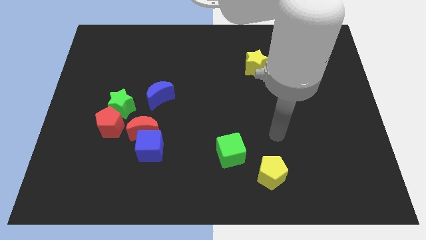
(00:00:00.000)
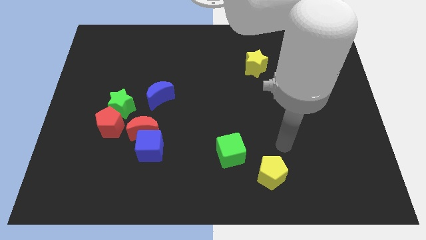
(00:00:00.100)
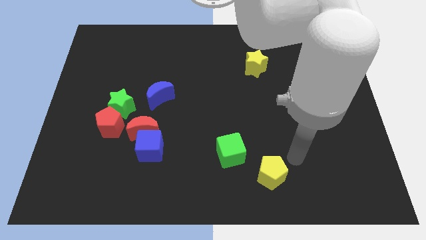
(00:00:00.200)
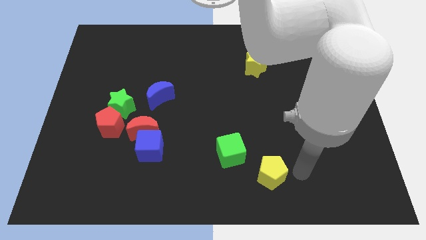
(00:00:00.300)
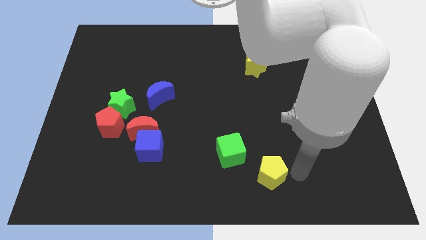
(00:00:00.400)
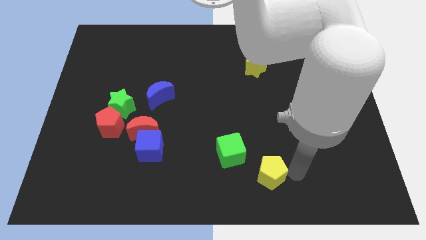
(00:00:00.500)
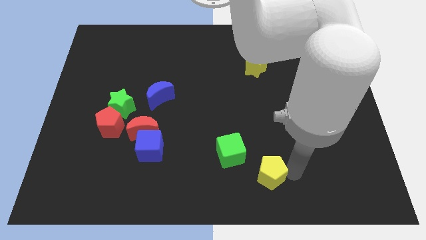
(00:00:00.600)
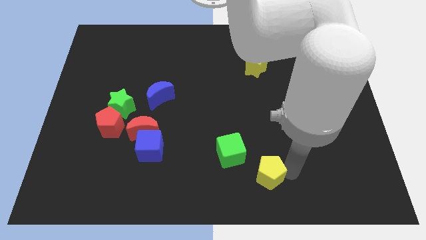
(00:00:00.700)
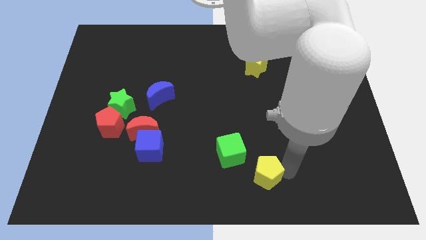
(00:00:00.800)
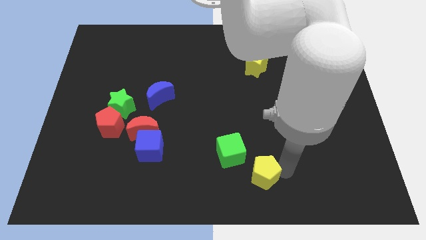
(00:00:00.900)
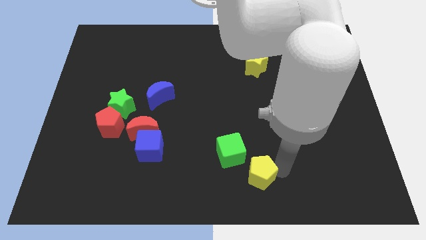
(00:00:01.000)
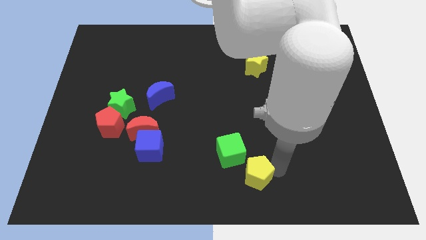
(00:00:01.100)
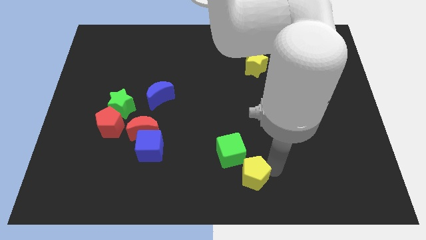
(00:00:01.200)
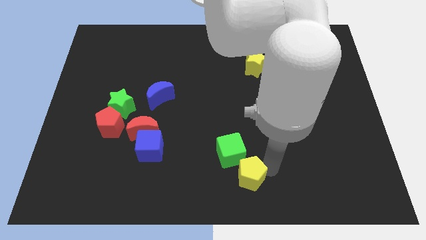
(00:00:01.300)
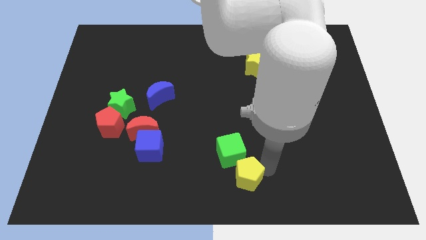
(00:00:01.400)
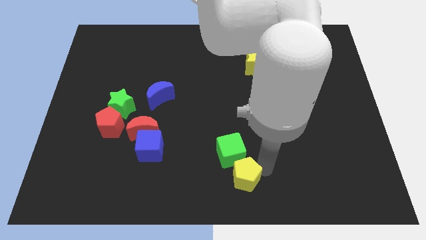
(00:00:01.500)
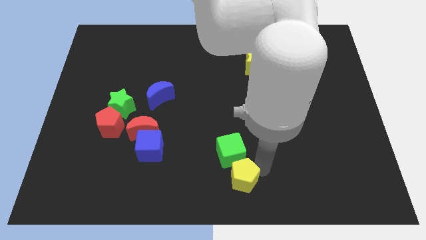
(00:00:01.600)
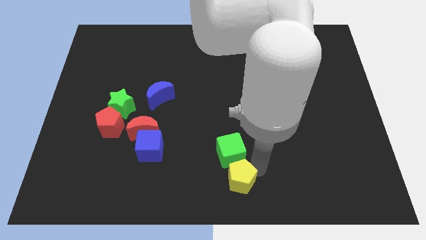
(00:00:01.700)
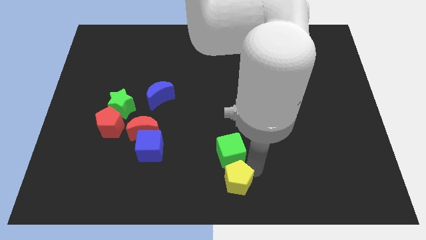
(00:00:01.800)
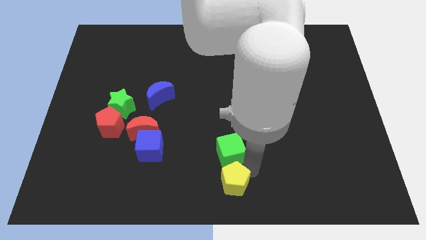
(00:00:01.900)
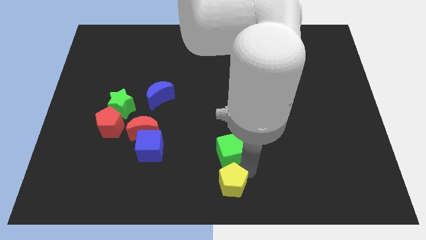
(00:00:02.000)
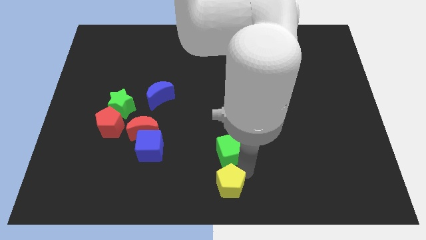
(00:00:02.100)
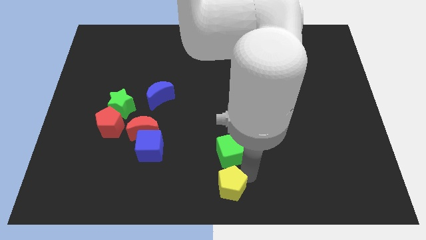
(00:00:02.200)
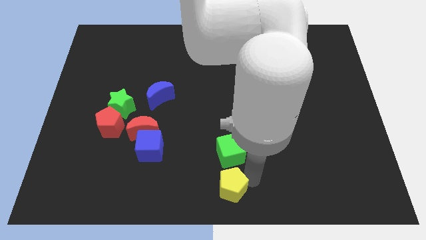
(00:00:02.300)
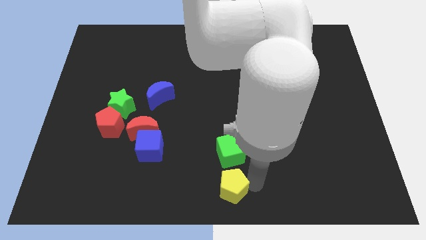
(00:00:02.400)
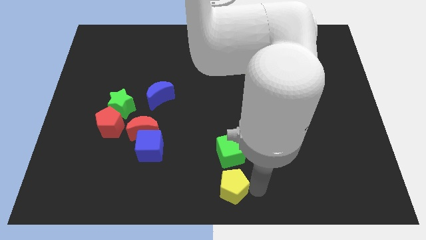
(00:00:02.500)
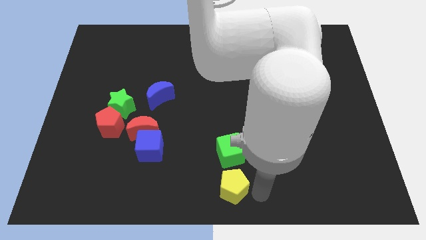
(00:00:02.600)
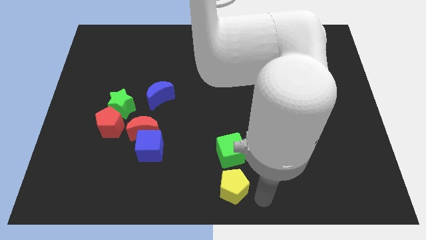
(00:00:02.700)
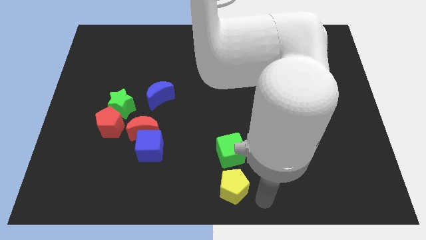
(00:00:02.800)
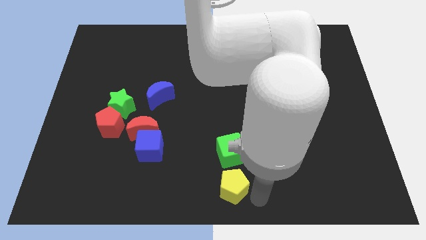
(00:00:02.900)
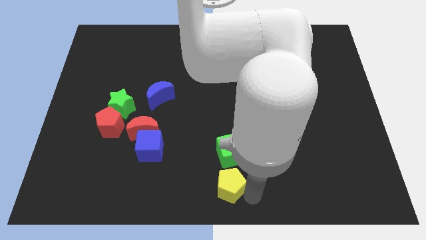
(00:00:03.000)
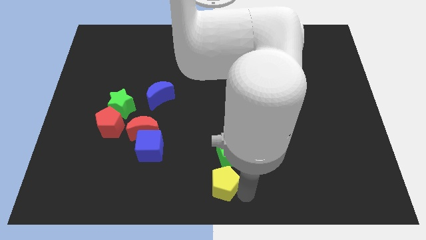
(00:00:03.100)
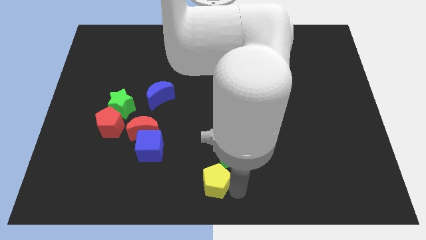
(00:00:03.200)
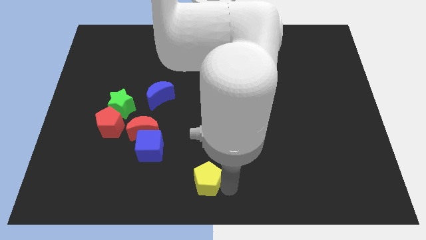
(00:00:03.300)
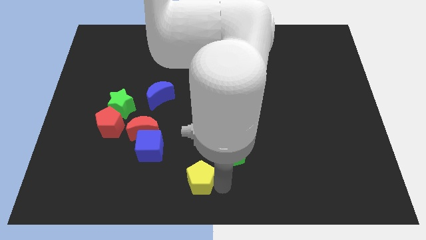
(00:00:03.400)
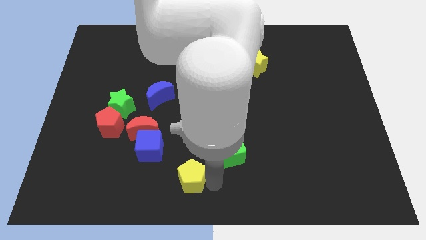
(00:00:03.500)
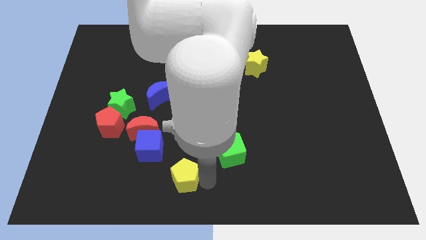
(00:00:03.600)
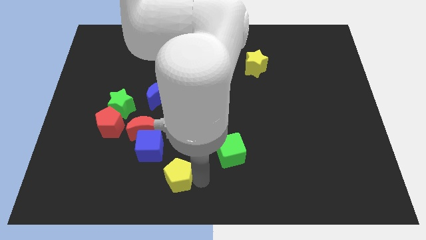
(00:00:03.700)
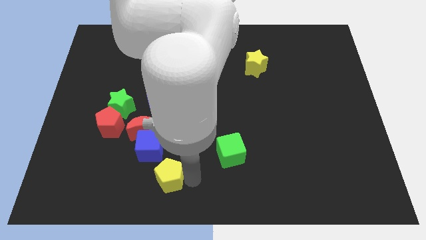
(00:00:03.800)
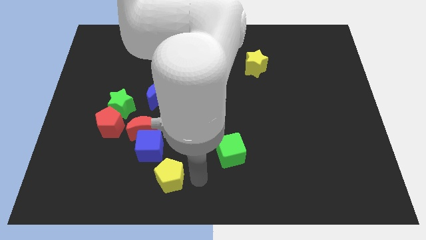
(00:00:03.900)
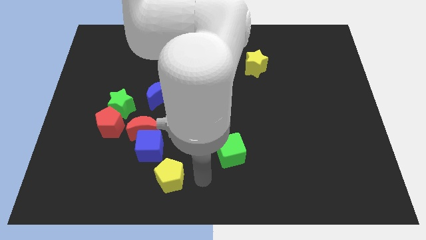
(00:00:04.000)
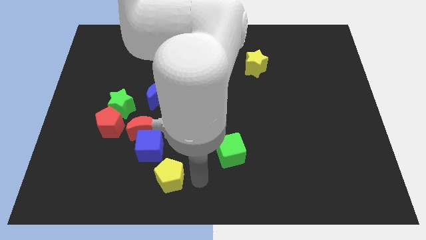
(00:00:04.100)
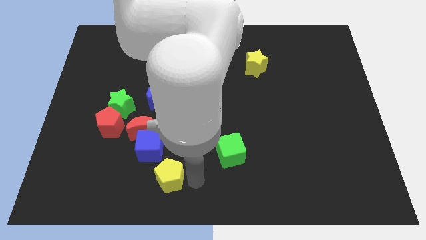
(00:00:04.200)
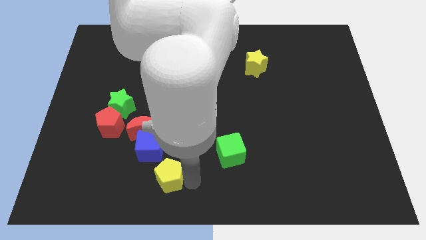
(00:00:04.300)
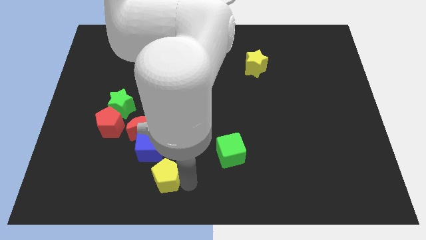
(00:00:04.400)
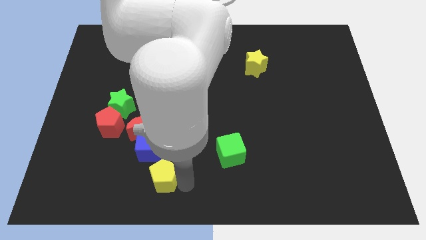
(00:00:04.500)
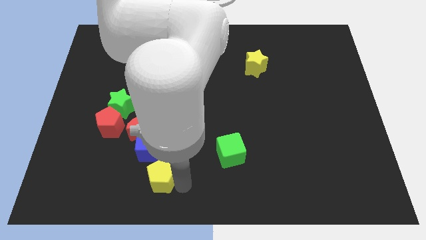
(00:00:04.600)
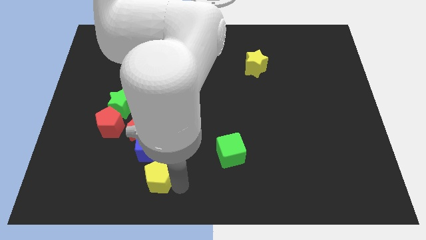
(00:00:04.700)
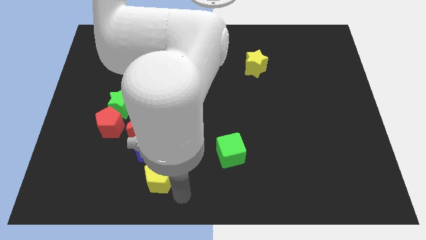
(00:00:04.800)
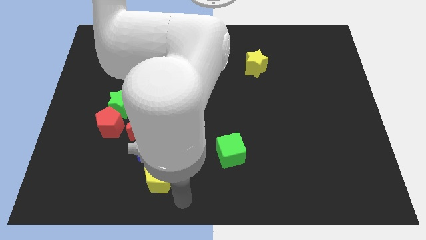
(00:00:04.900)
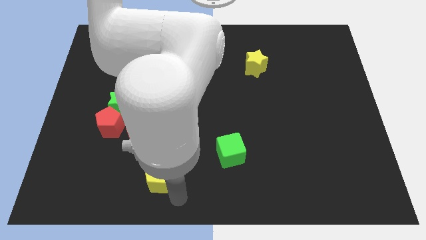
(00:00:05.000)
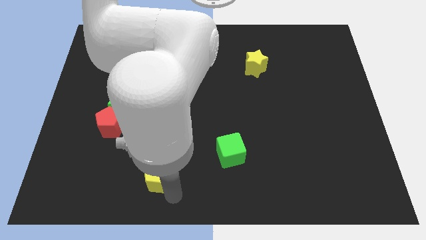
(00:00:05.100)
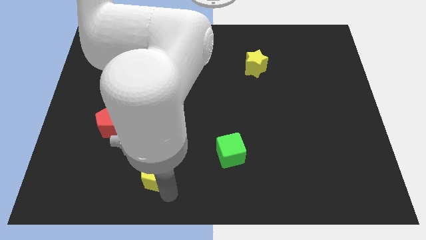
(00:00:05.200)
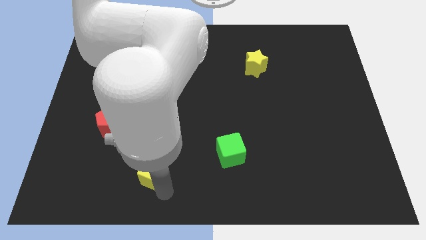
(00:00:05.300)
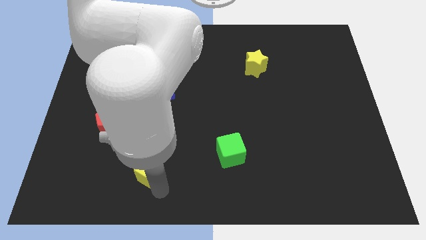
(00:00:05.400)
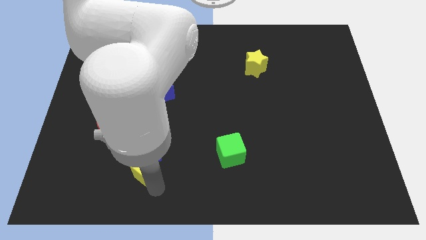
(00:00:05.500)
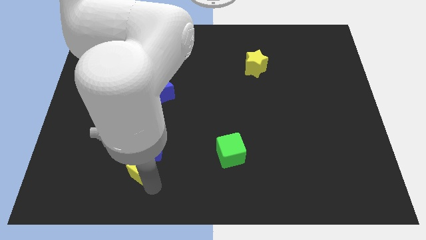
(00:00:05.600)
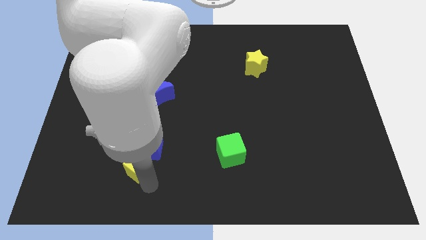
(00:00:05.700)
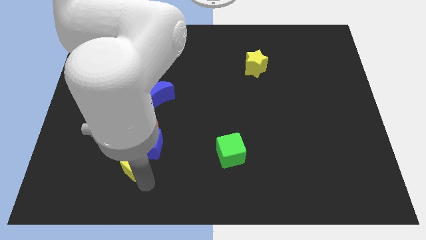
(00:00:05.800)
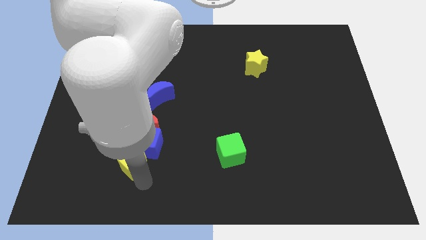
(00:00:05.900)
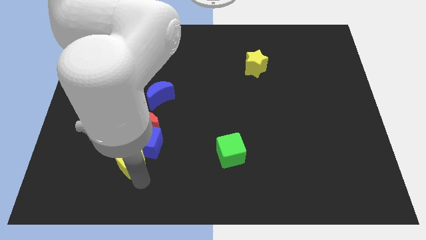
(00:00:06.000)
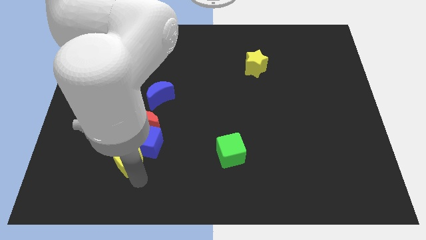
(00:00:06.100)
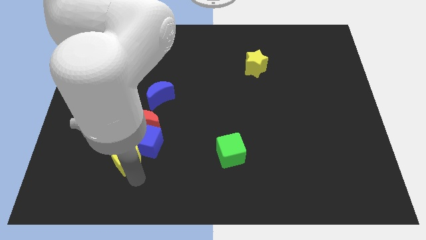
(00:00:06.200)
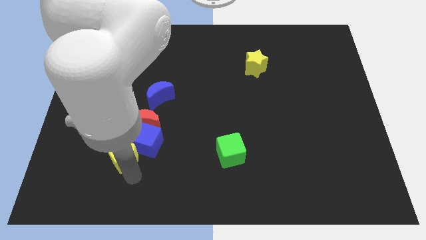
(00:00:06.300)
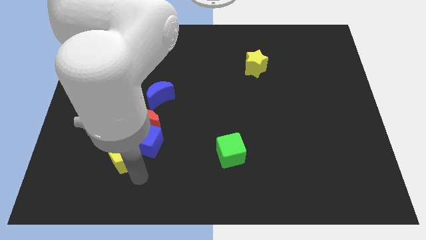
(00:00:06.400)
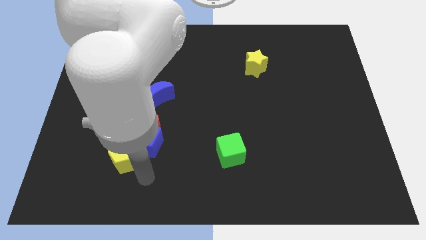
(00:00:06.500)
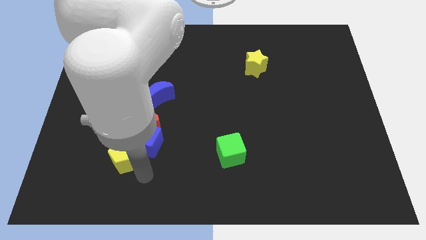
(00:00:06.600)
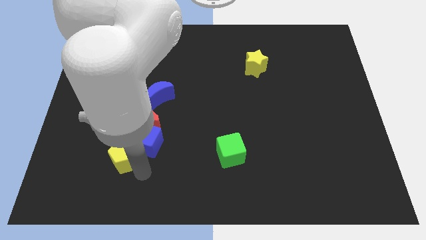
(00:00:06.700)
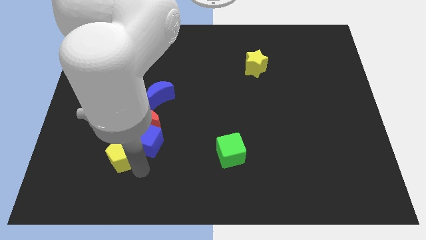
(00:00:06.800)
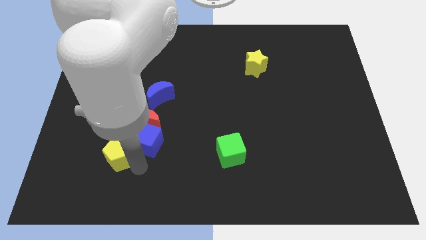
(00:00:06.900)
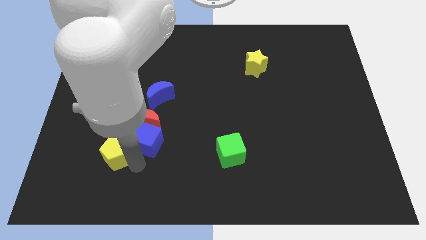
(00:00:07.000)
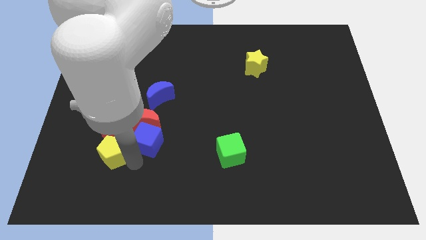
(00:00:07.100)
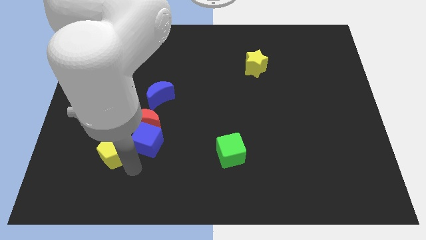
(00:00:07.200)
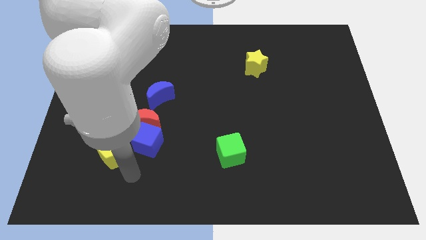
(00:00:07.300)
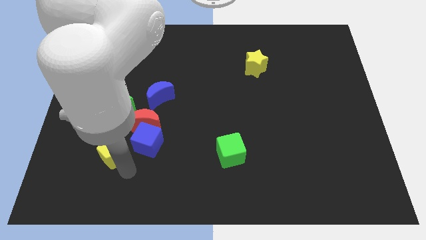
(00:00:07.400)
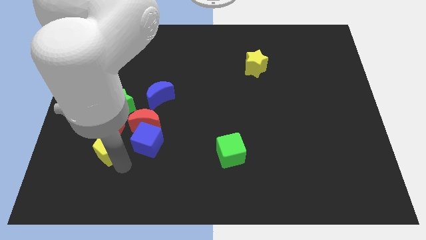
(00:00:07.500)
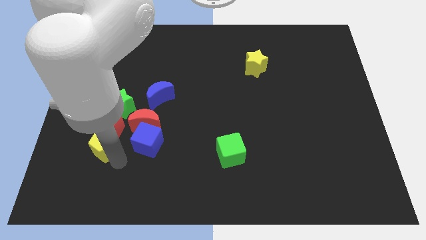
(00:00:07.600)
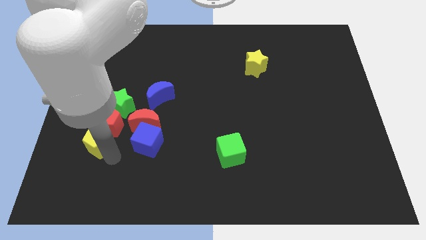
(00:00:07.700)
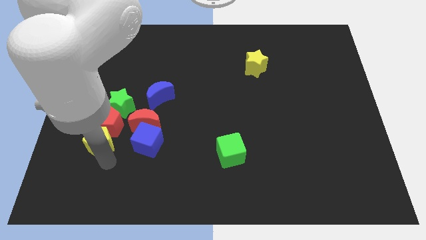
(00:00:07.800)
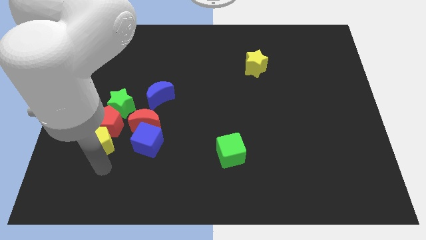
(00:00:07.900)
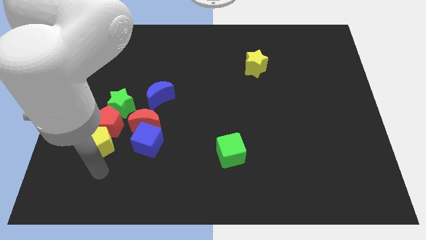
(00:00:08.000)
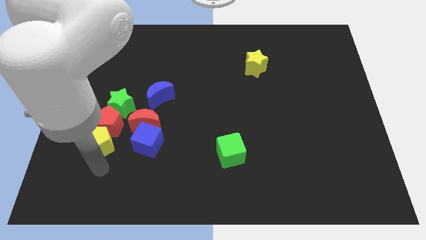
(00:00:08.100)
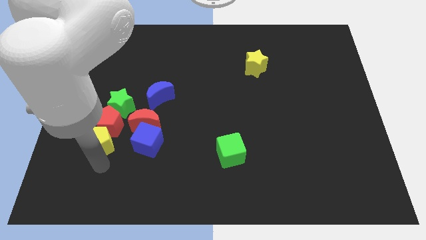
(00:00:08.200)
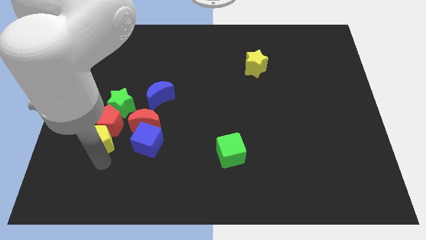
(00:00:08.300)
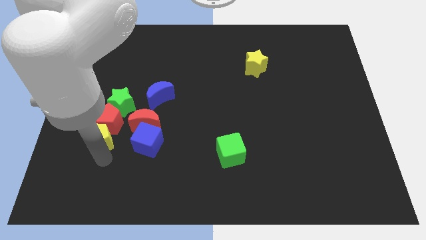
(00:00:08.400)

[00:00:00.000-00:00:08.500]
push the yellow pentagon to the left side of the red moon
